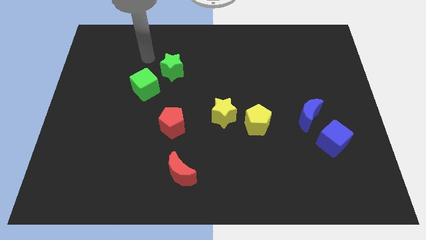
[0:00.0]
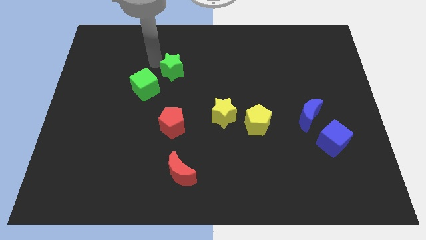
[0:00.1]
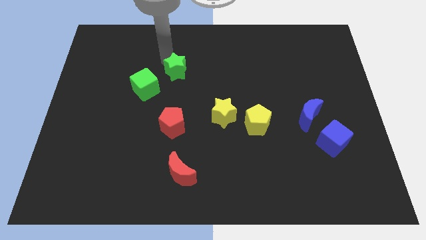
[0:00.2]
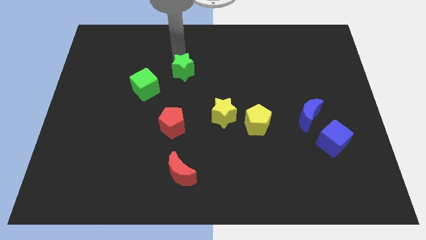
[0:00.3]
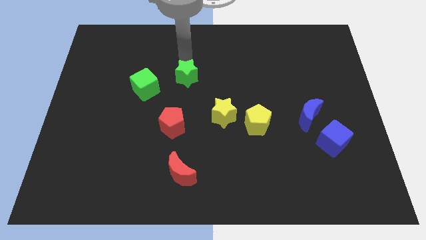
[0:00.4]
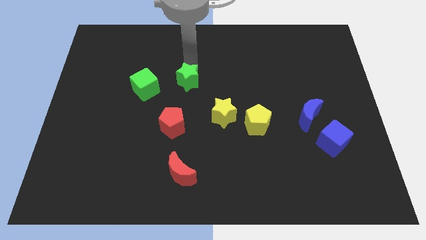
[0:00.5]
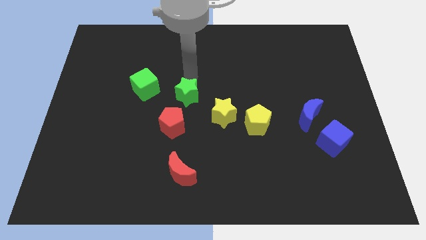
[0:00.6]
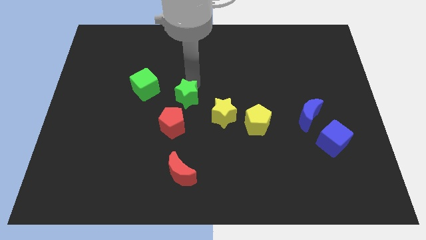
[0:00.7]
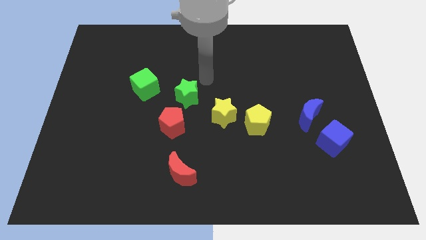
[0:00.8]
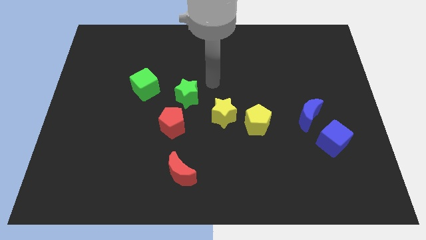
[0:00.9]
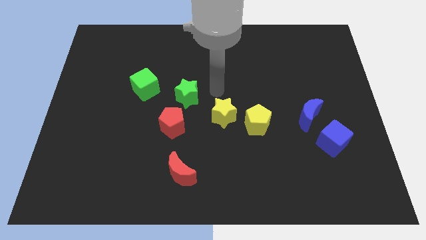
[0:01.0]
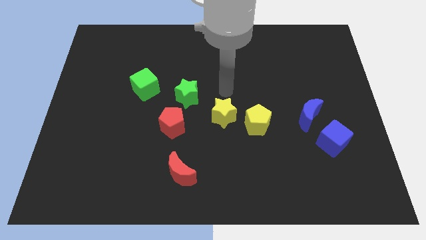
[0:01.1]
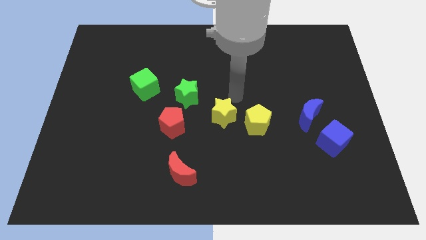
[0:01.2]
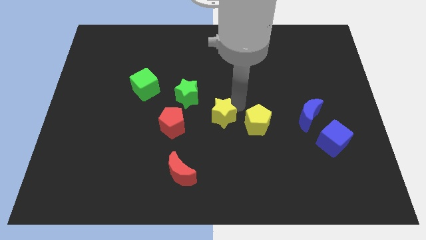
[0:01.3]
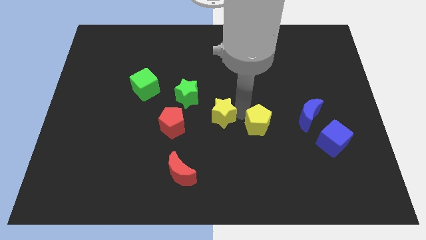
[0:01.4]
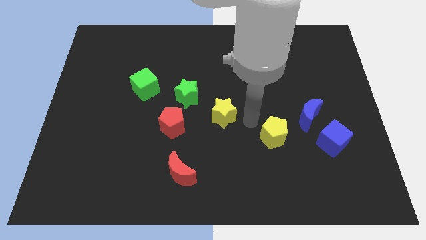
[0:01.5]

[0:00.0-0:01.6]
separate the yellow star from the yellow pentagon

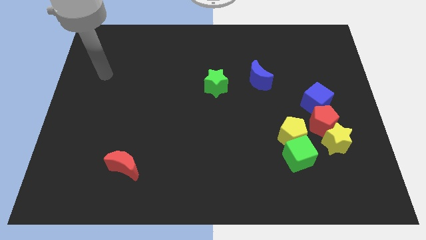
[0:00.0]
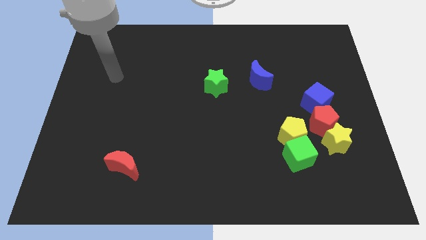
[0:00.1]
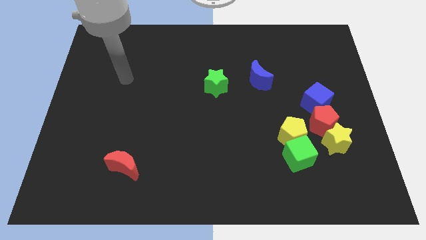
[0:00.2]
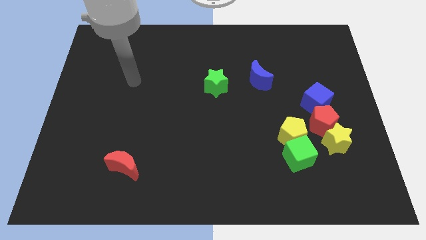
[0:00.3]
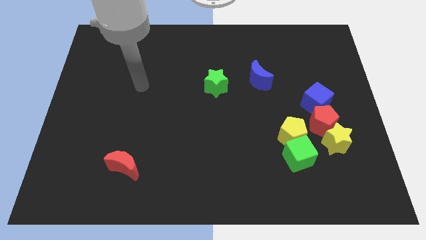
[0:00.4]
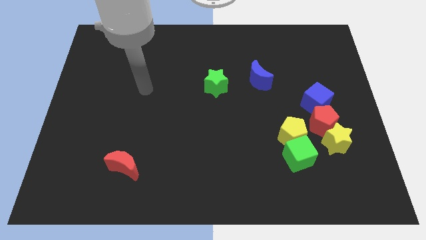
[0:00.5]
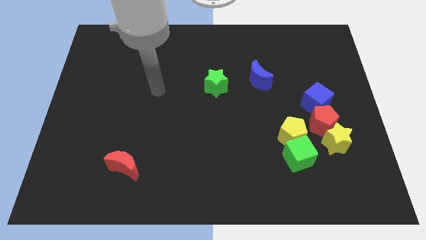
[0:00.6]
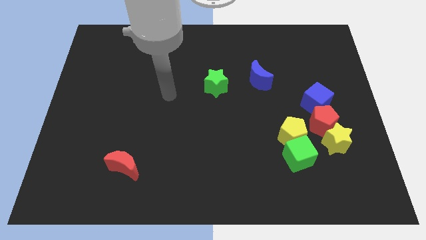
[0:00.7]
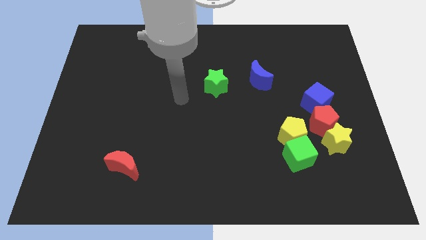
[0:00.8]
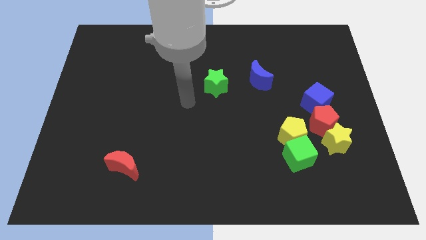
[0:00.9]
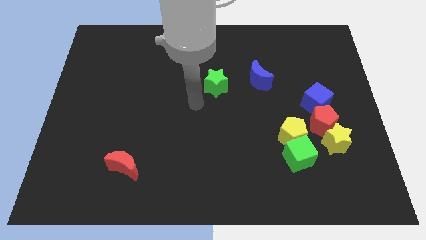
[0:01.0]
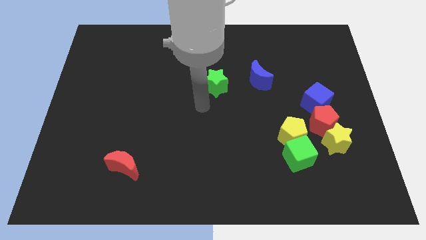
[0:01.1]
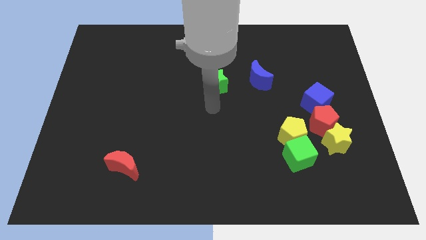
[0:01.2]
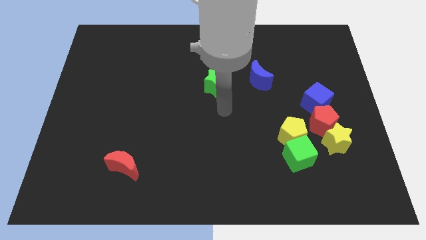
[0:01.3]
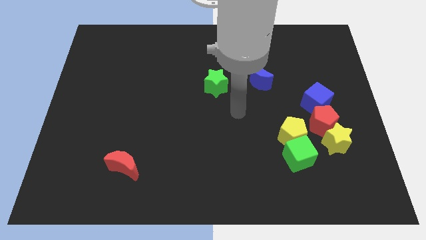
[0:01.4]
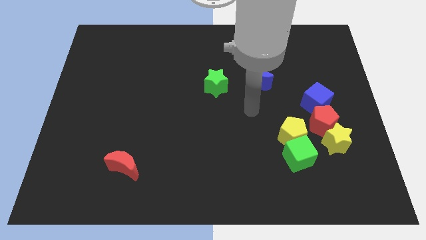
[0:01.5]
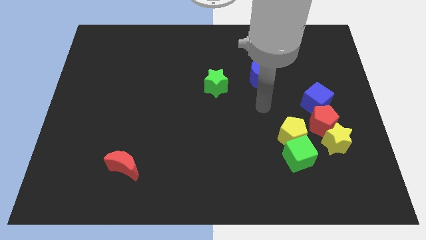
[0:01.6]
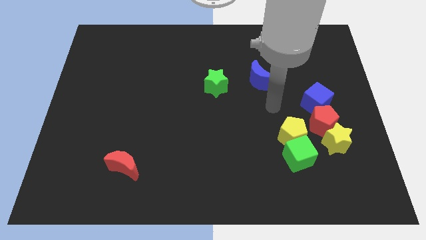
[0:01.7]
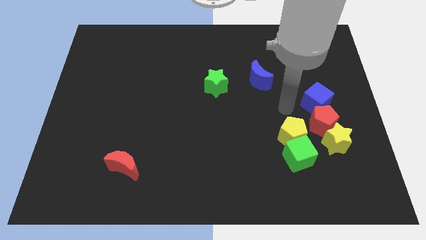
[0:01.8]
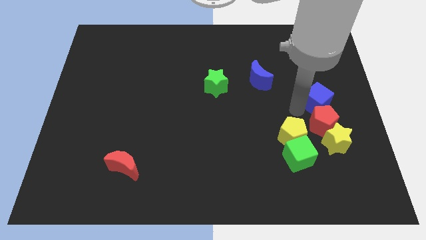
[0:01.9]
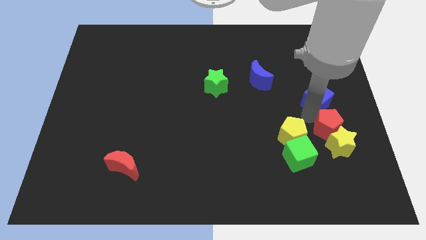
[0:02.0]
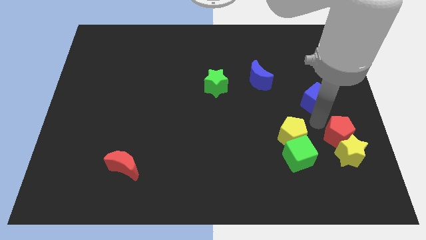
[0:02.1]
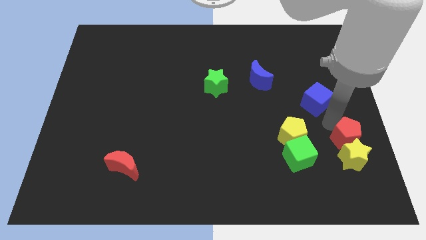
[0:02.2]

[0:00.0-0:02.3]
move the blue cube away from the red pentagon

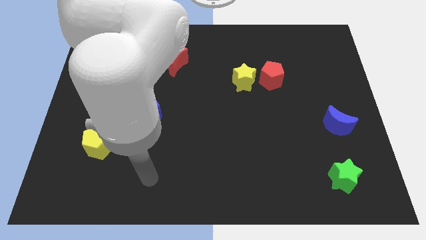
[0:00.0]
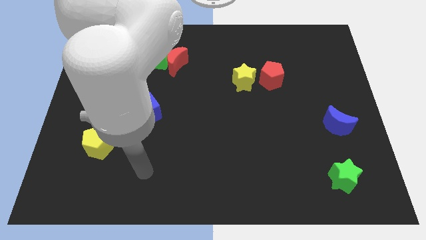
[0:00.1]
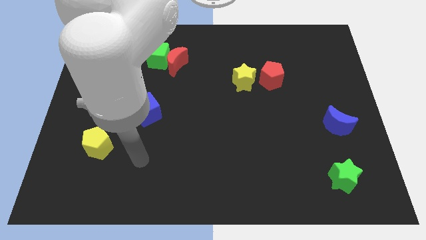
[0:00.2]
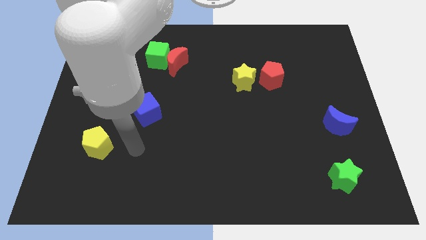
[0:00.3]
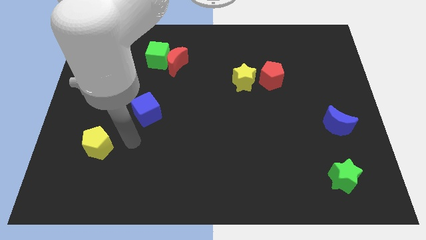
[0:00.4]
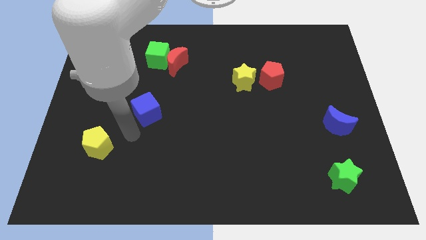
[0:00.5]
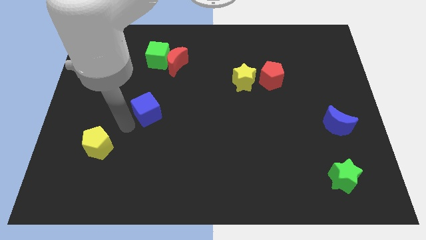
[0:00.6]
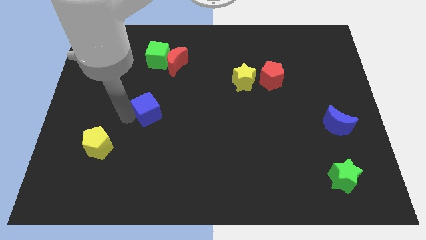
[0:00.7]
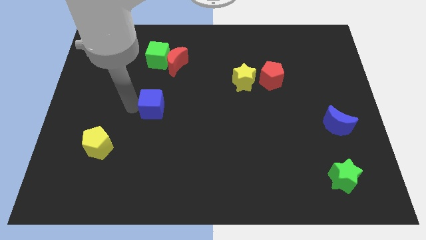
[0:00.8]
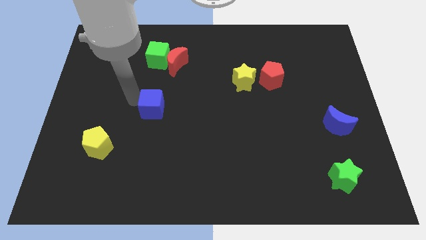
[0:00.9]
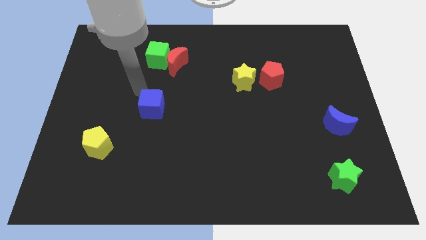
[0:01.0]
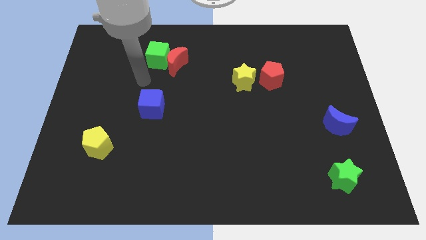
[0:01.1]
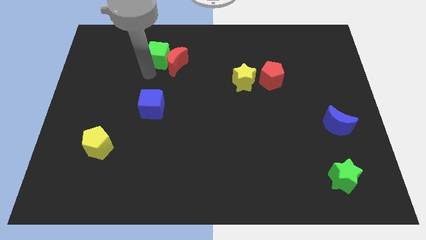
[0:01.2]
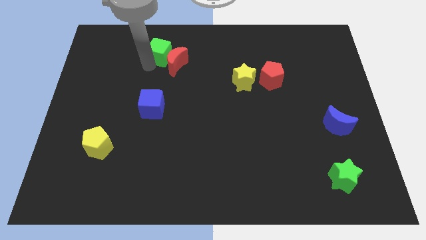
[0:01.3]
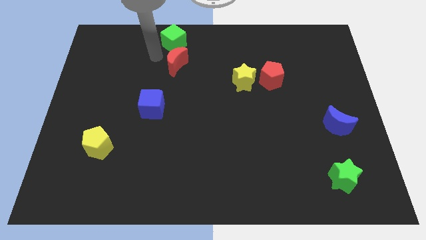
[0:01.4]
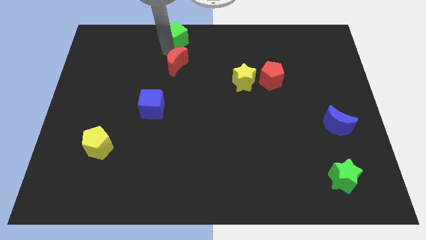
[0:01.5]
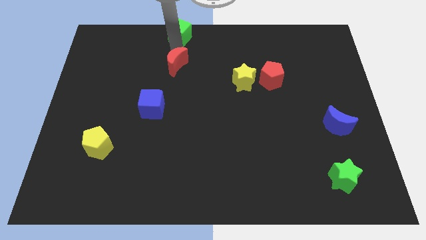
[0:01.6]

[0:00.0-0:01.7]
separate the red moon from the green cube

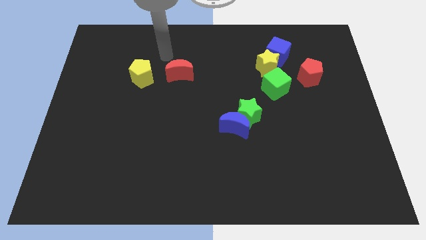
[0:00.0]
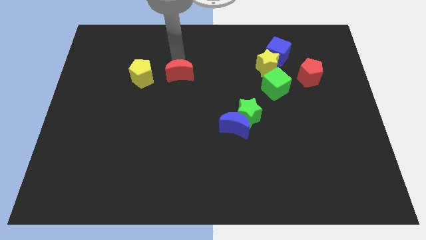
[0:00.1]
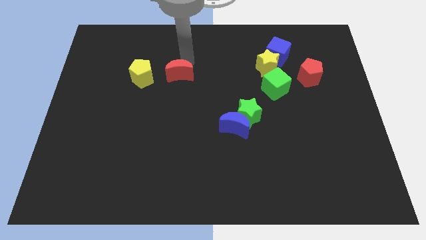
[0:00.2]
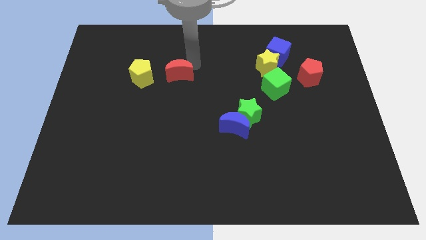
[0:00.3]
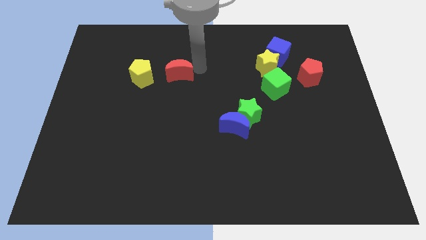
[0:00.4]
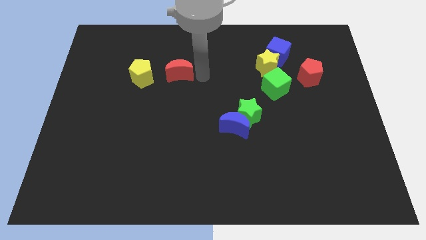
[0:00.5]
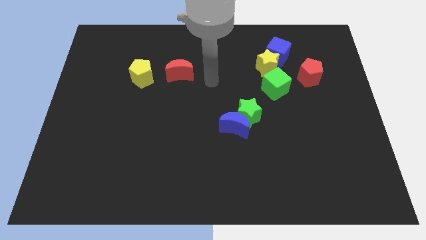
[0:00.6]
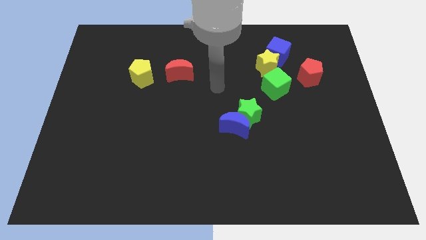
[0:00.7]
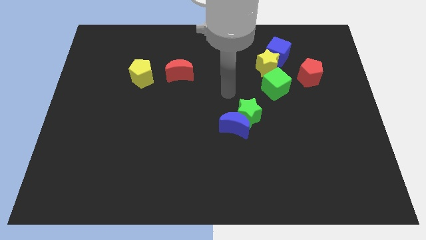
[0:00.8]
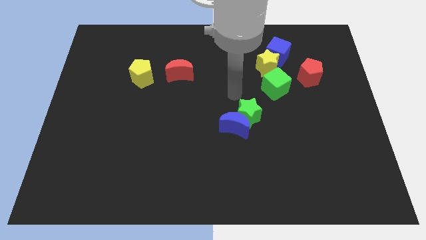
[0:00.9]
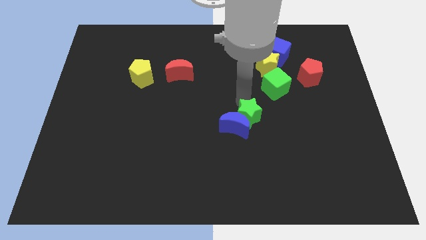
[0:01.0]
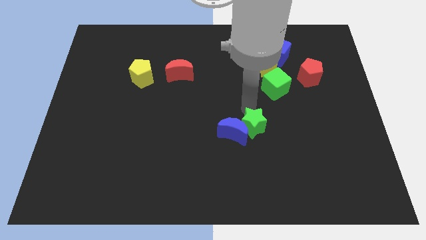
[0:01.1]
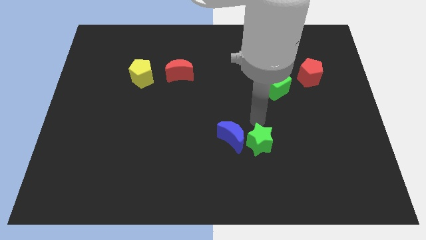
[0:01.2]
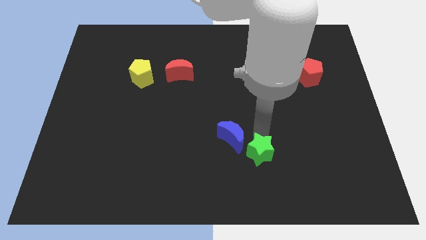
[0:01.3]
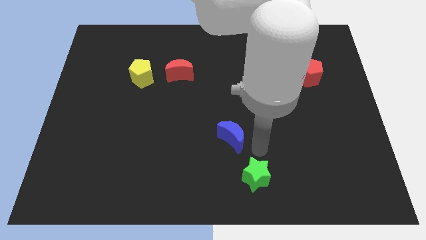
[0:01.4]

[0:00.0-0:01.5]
pull the blue moon apart from the green star

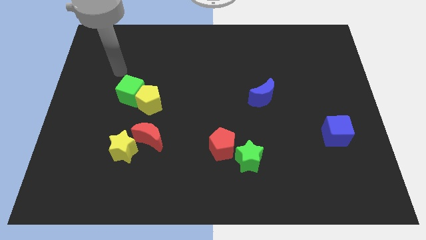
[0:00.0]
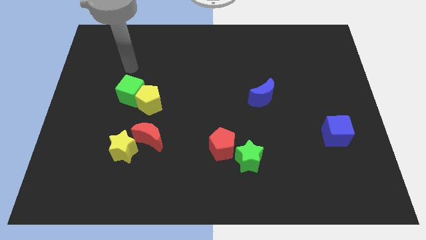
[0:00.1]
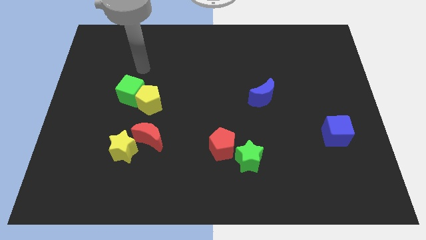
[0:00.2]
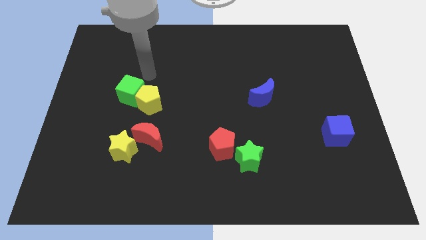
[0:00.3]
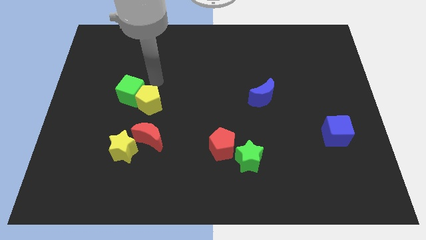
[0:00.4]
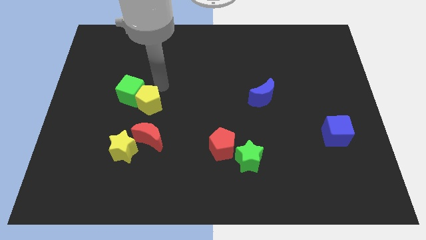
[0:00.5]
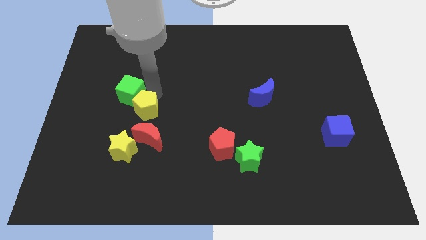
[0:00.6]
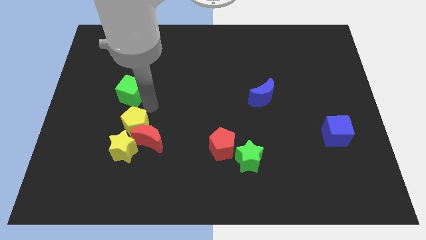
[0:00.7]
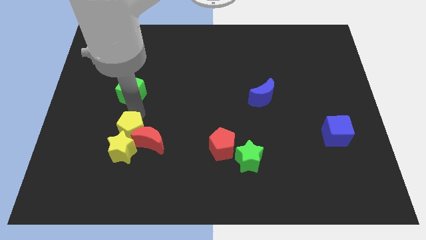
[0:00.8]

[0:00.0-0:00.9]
separate the green cube from the yellow pentagon

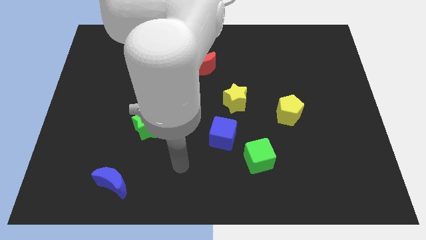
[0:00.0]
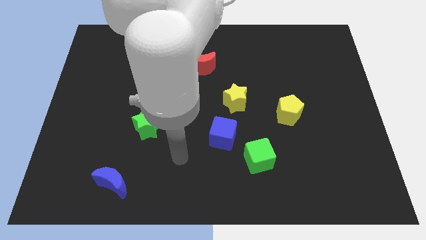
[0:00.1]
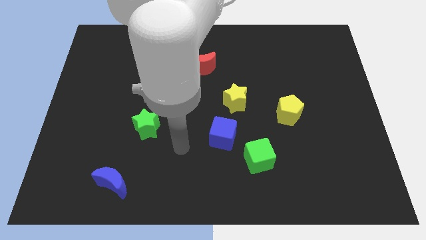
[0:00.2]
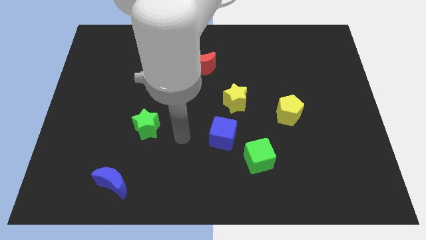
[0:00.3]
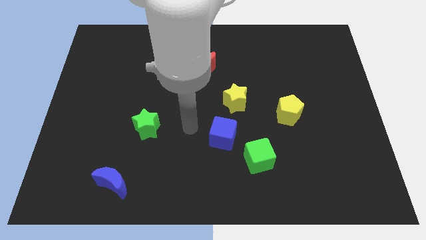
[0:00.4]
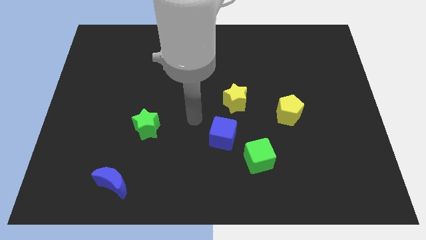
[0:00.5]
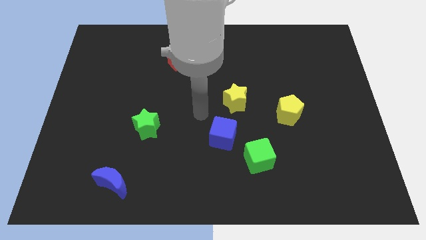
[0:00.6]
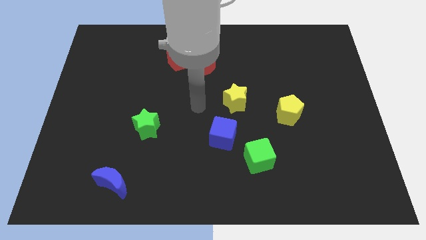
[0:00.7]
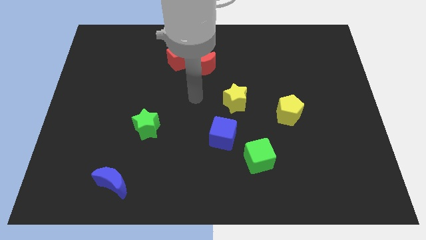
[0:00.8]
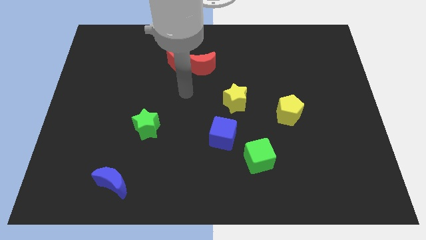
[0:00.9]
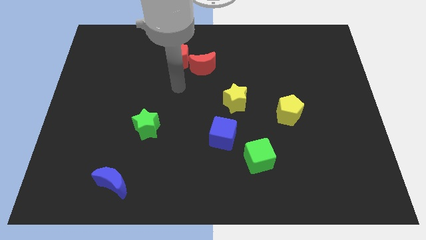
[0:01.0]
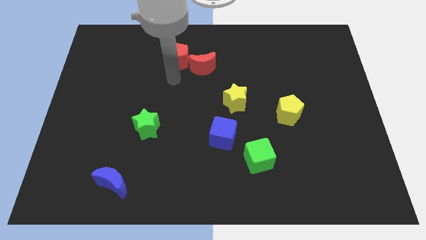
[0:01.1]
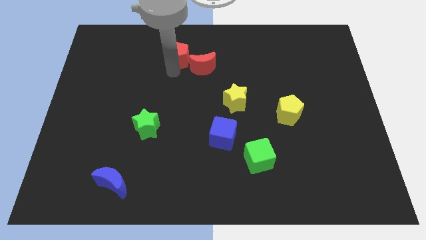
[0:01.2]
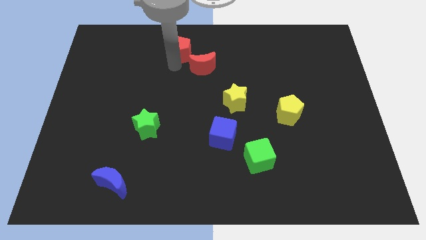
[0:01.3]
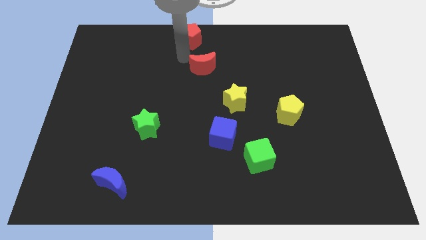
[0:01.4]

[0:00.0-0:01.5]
move the red moon away from the red pentagon
